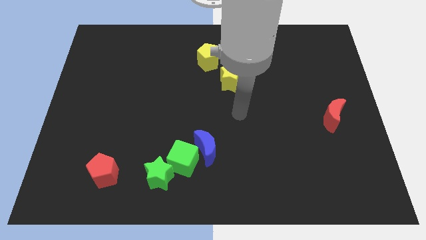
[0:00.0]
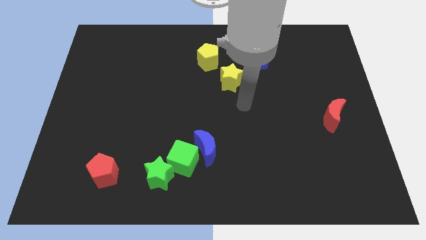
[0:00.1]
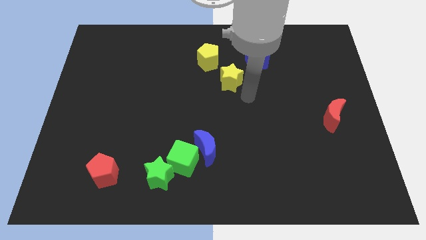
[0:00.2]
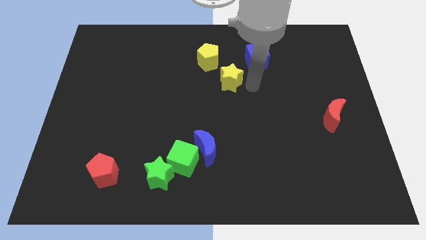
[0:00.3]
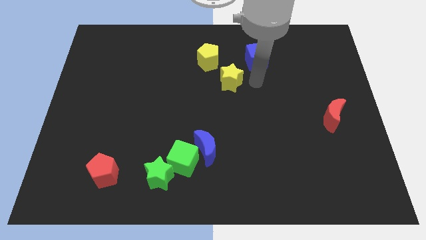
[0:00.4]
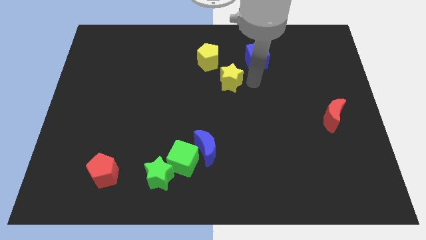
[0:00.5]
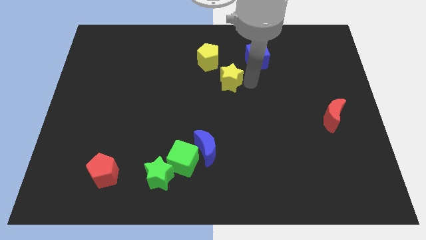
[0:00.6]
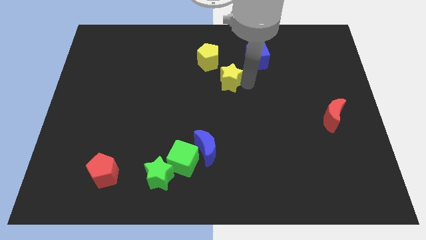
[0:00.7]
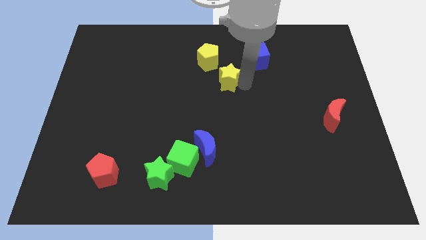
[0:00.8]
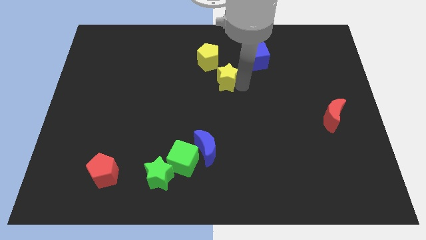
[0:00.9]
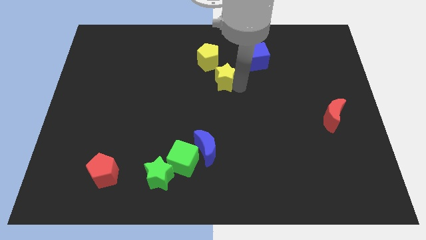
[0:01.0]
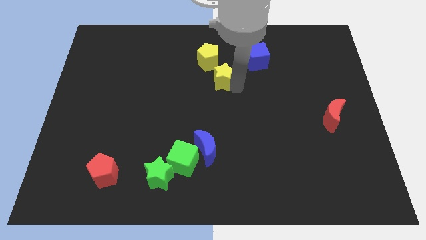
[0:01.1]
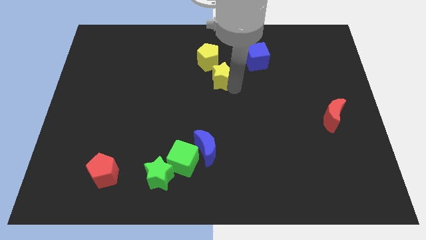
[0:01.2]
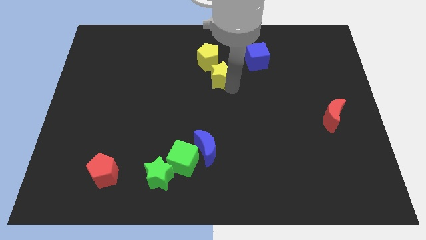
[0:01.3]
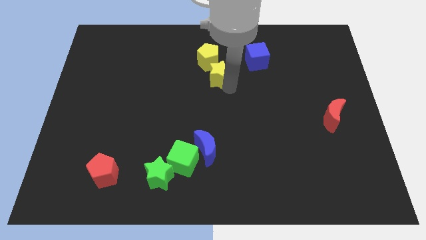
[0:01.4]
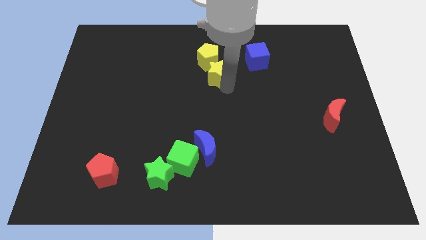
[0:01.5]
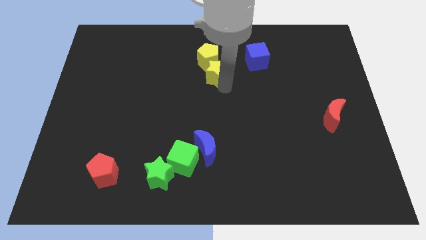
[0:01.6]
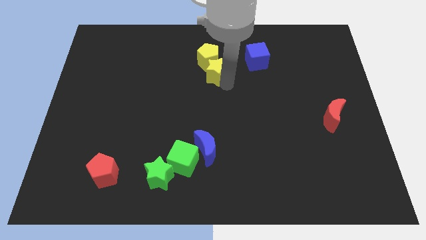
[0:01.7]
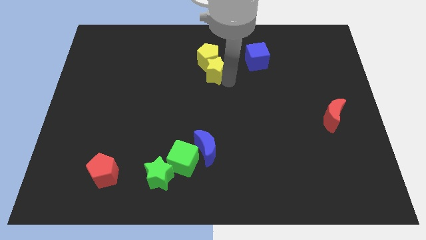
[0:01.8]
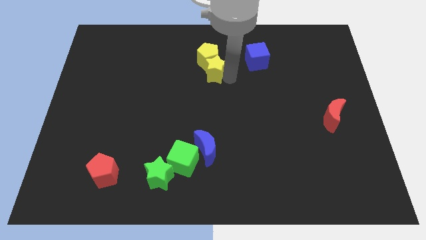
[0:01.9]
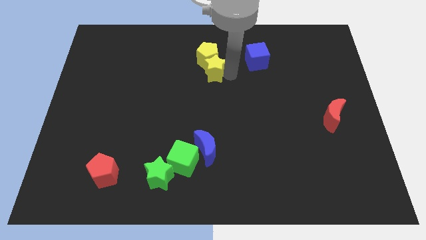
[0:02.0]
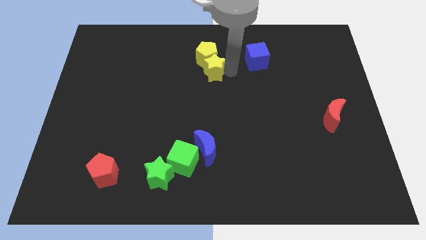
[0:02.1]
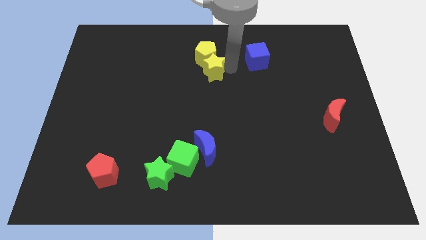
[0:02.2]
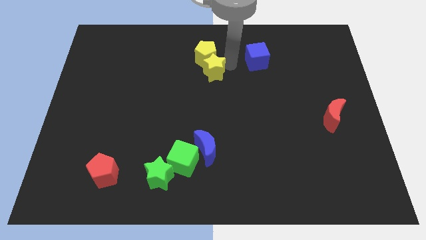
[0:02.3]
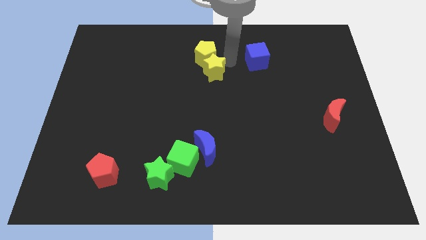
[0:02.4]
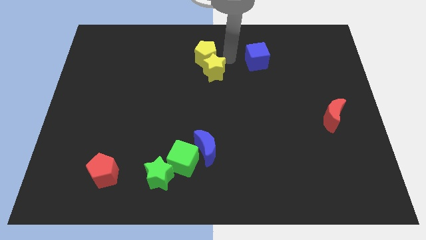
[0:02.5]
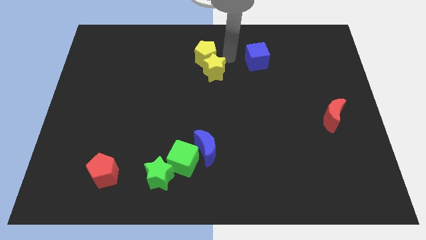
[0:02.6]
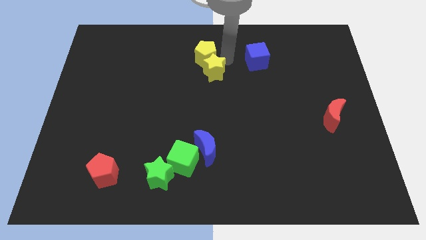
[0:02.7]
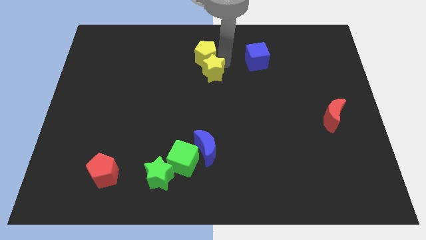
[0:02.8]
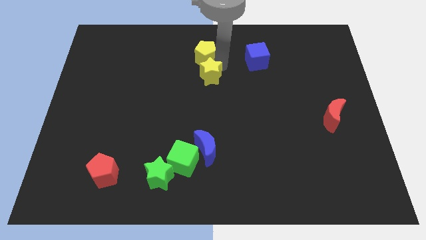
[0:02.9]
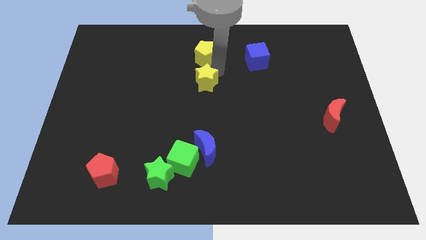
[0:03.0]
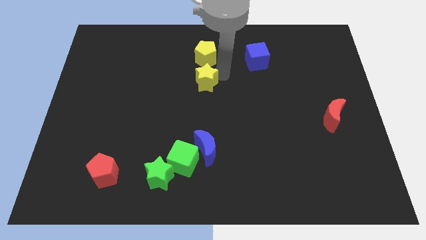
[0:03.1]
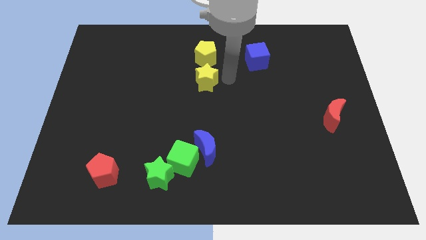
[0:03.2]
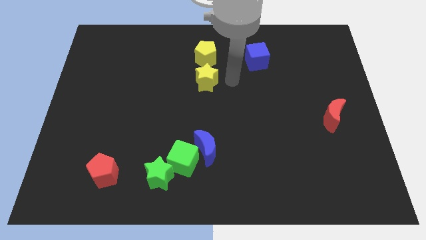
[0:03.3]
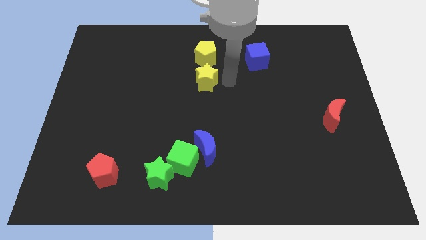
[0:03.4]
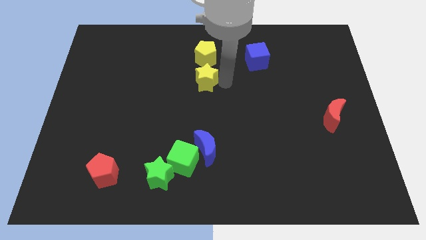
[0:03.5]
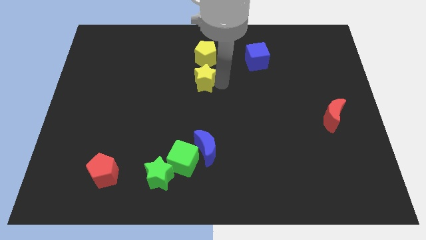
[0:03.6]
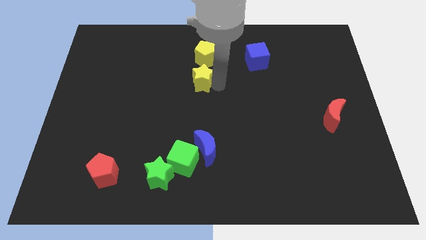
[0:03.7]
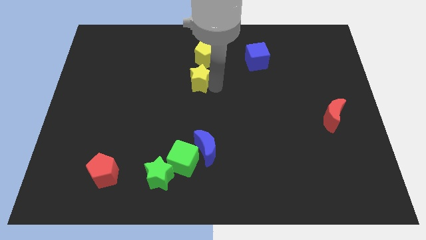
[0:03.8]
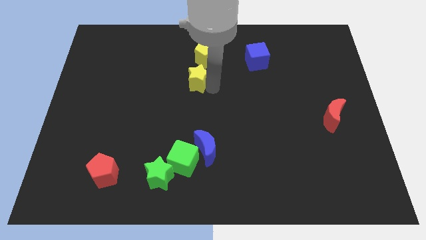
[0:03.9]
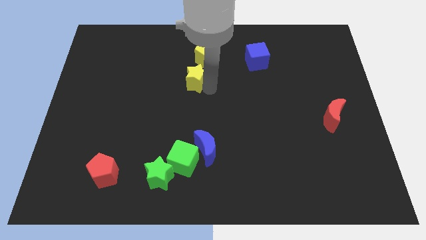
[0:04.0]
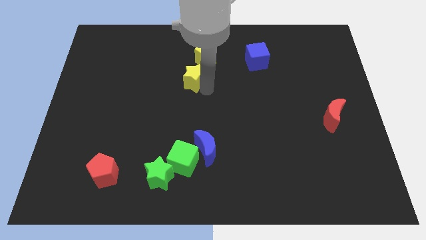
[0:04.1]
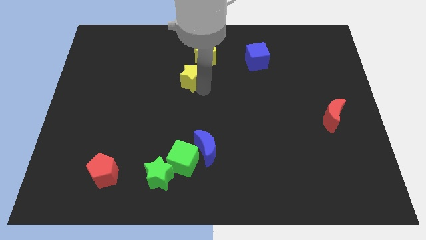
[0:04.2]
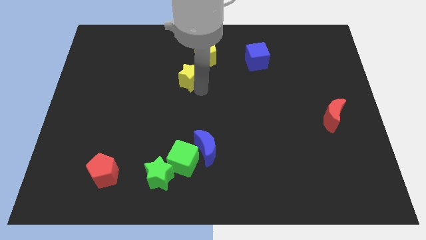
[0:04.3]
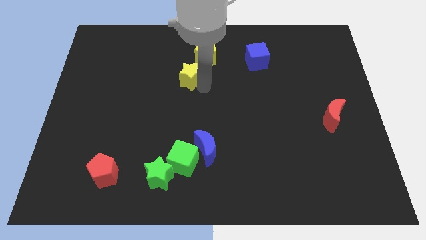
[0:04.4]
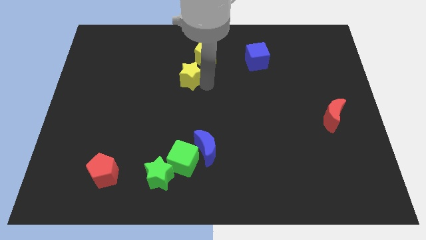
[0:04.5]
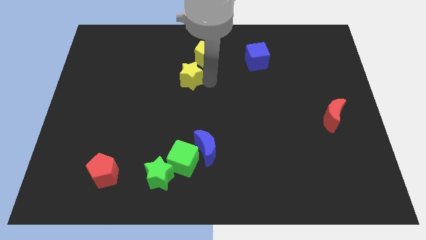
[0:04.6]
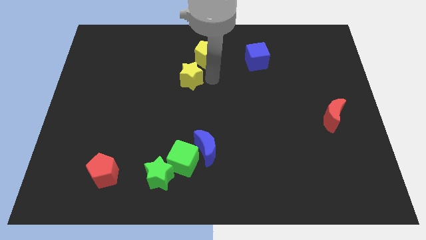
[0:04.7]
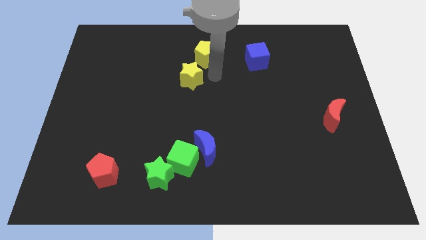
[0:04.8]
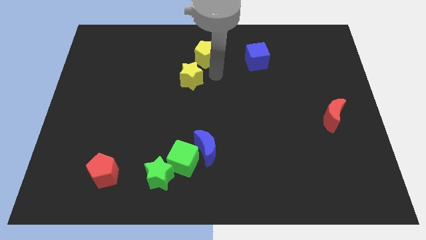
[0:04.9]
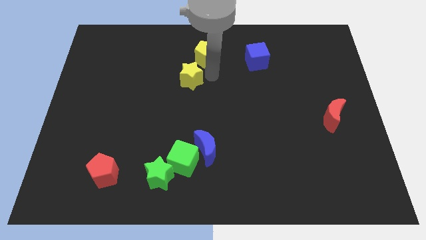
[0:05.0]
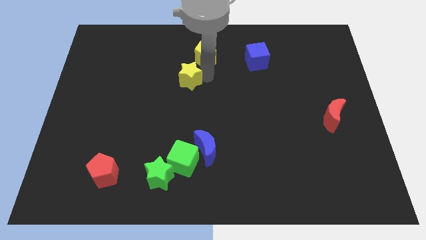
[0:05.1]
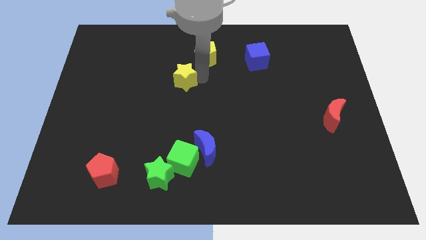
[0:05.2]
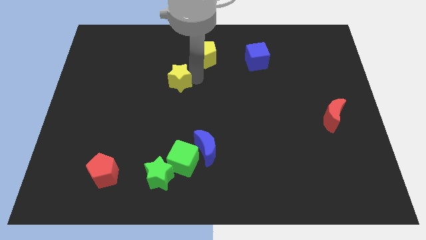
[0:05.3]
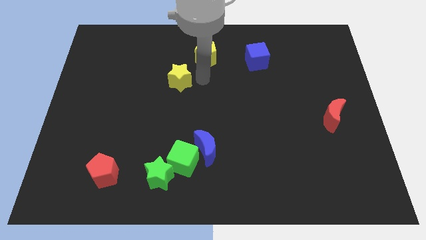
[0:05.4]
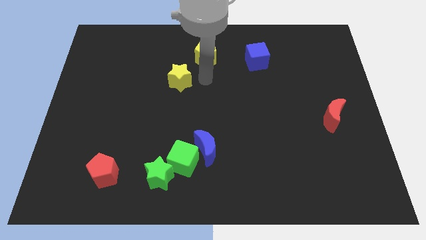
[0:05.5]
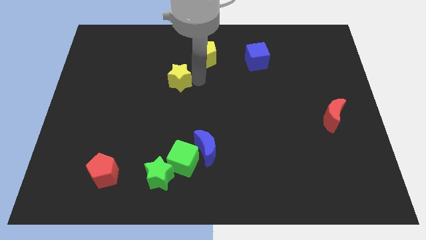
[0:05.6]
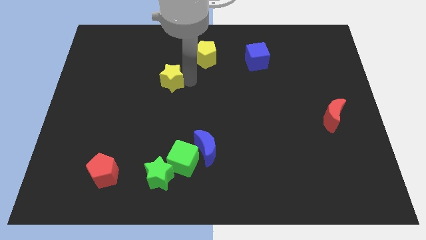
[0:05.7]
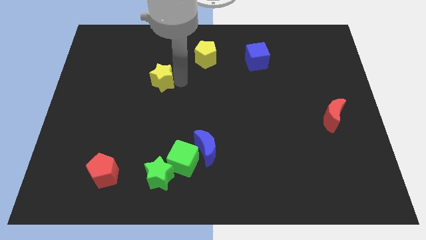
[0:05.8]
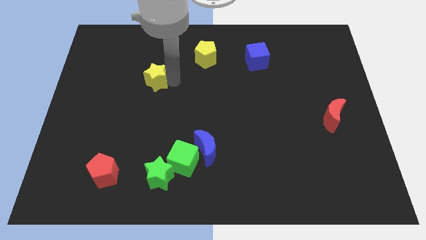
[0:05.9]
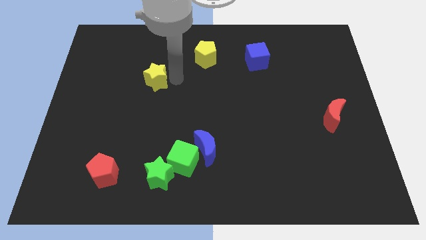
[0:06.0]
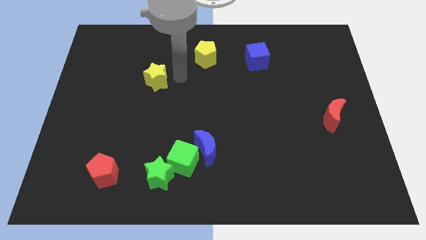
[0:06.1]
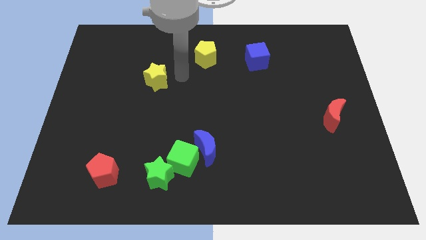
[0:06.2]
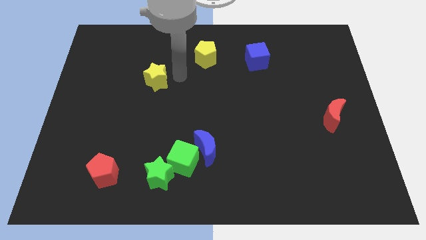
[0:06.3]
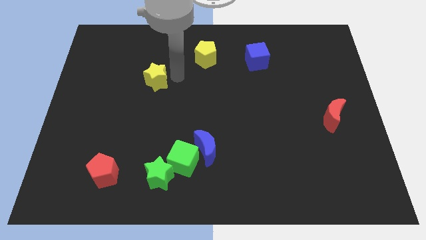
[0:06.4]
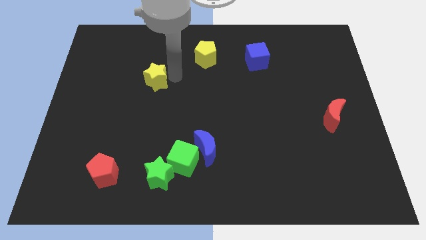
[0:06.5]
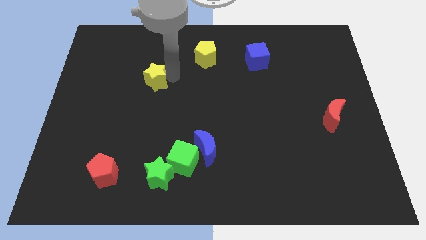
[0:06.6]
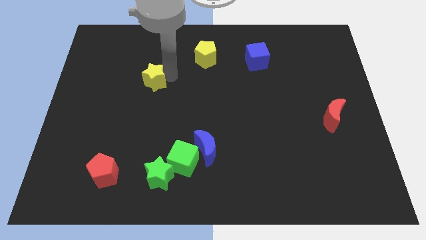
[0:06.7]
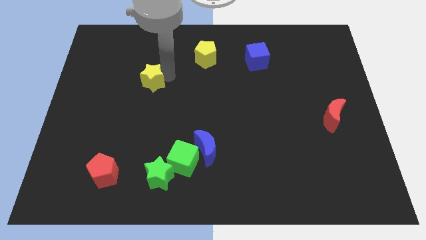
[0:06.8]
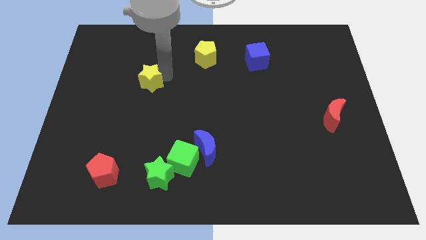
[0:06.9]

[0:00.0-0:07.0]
push the yellow star to the left

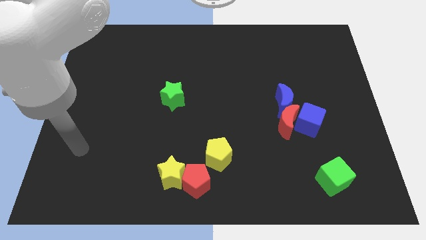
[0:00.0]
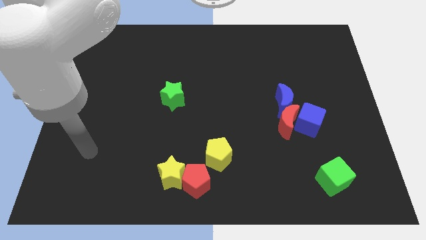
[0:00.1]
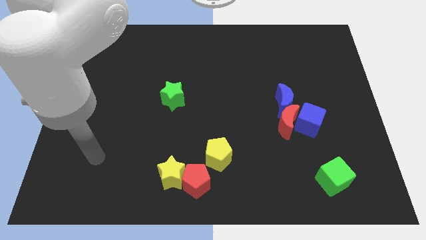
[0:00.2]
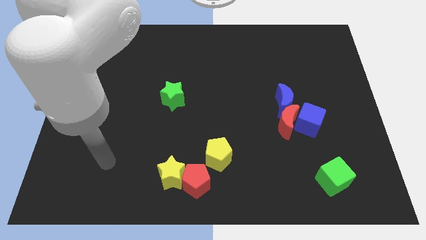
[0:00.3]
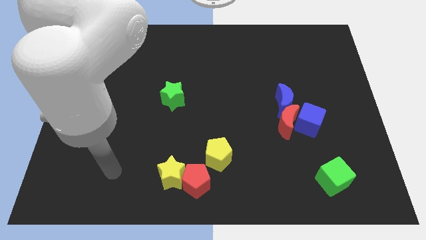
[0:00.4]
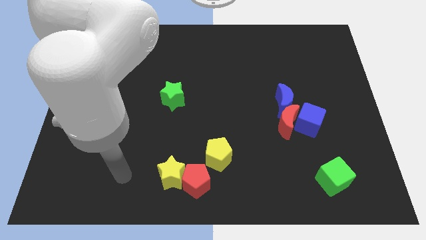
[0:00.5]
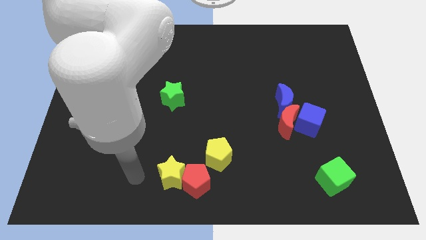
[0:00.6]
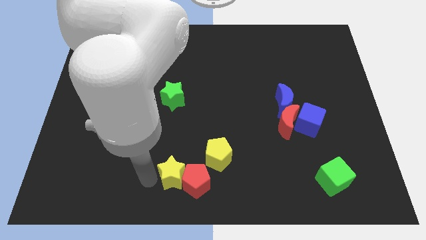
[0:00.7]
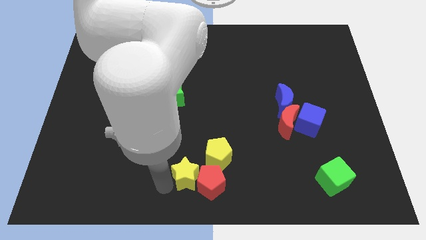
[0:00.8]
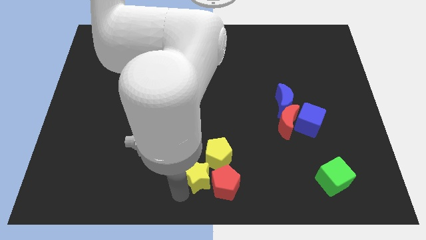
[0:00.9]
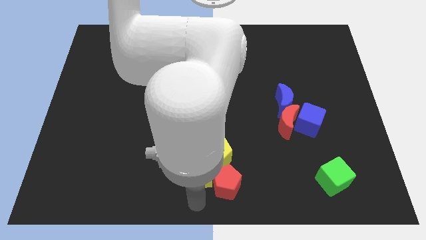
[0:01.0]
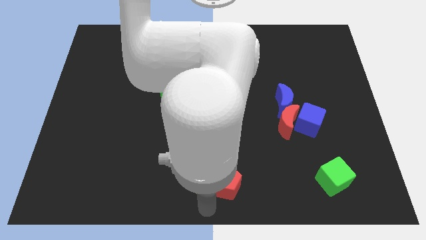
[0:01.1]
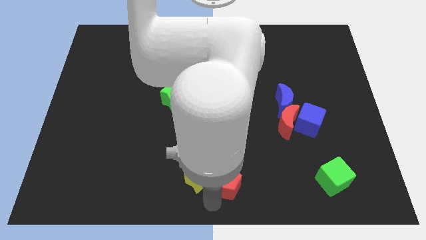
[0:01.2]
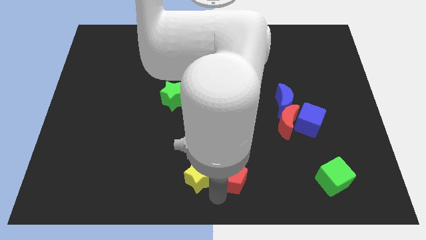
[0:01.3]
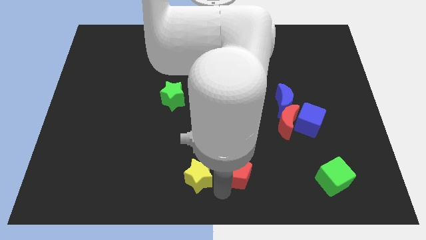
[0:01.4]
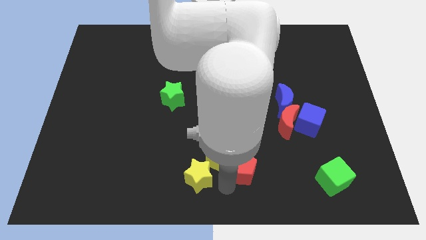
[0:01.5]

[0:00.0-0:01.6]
slide the red pentagon somewhat diagonally up and to the right
